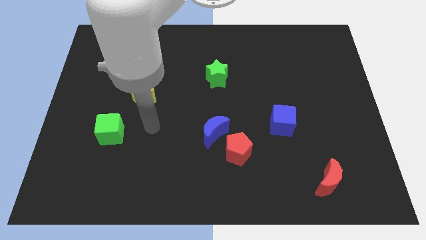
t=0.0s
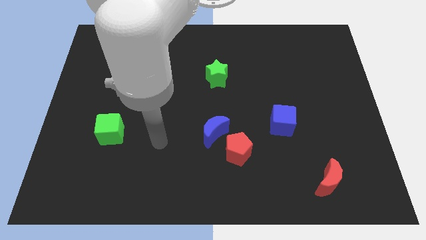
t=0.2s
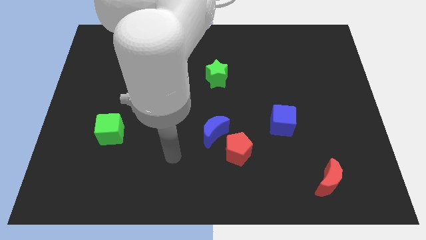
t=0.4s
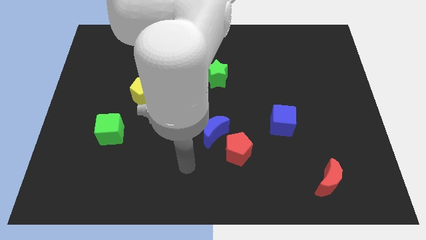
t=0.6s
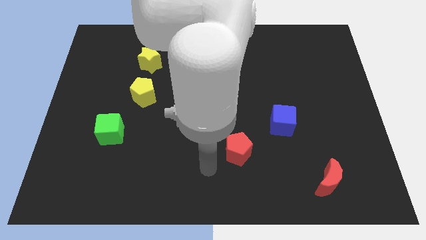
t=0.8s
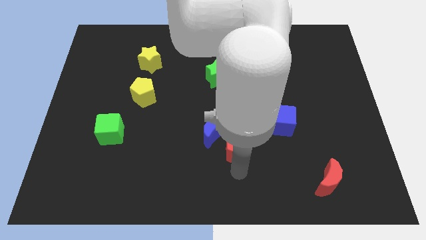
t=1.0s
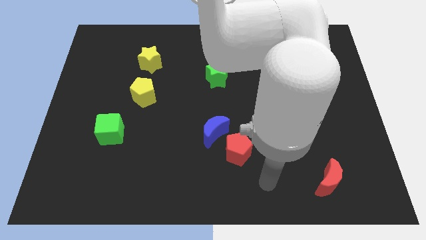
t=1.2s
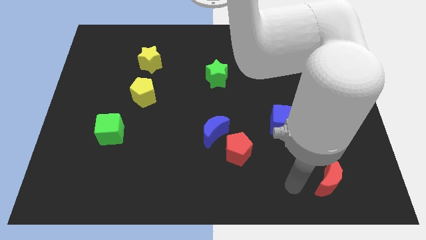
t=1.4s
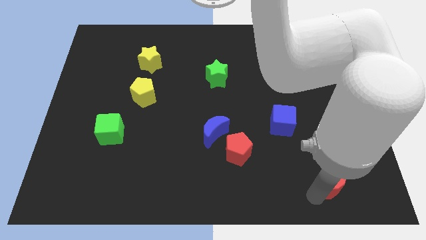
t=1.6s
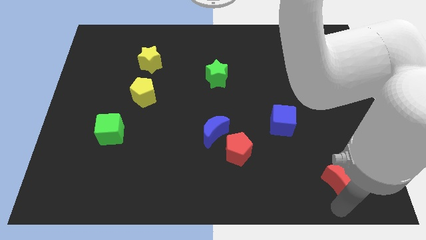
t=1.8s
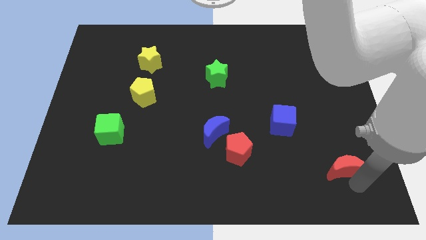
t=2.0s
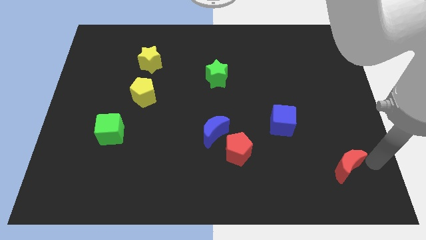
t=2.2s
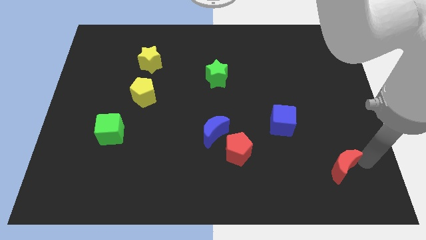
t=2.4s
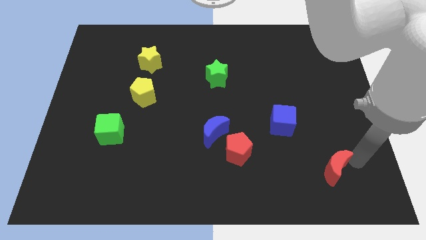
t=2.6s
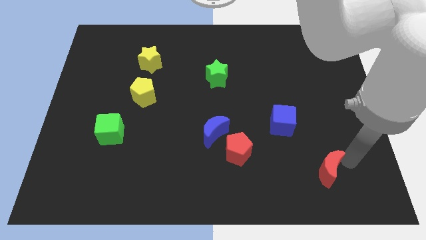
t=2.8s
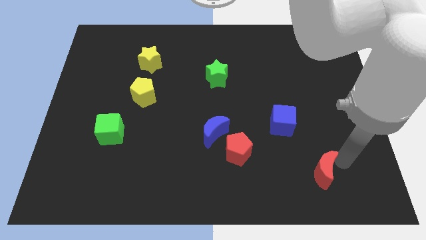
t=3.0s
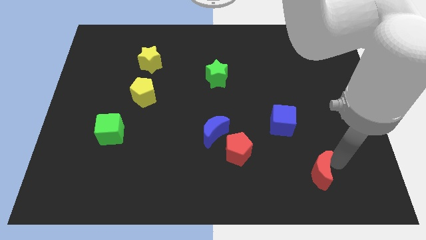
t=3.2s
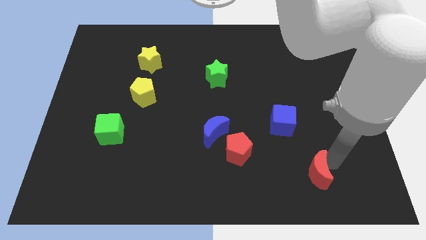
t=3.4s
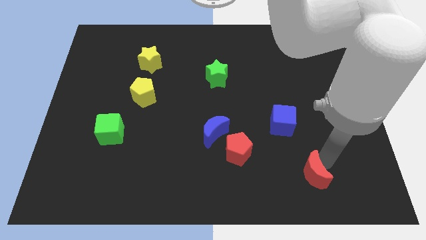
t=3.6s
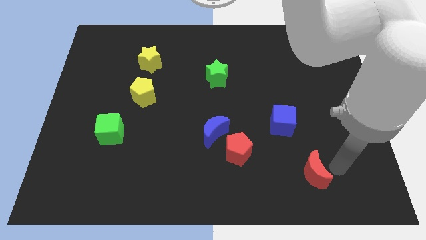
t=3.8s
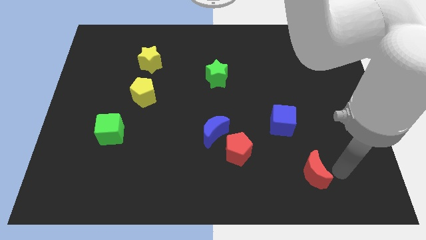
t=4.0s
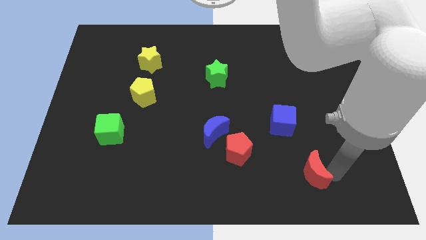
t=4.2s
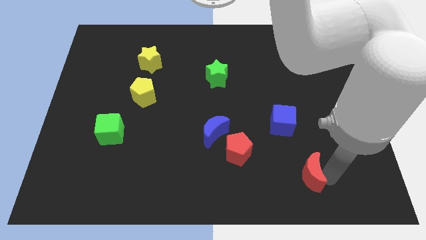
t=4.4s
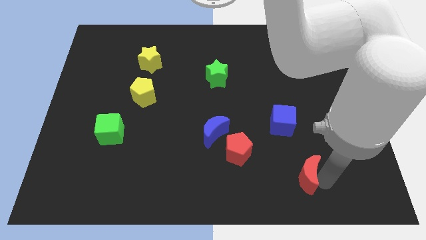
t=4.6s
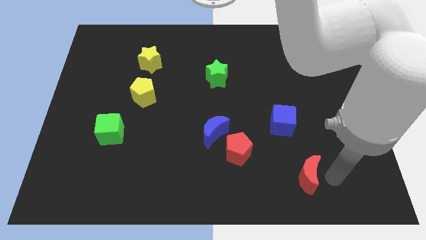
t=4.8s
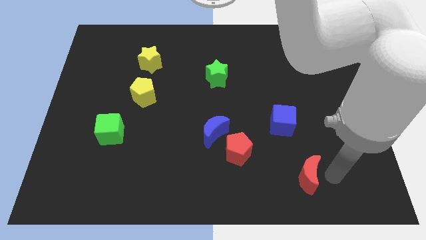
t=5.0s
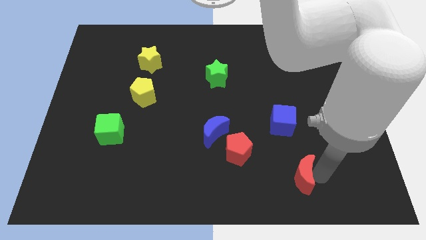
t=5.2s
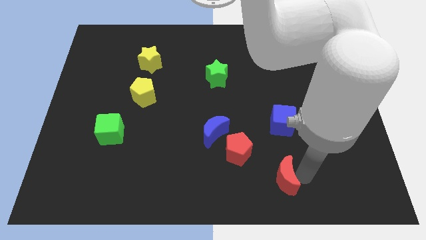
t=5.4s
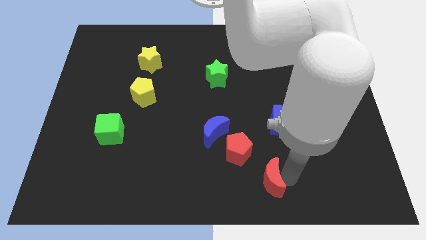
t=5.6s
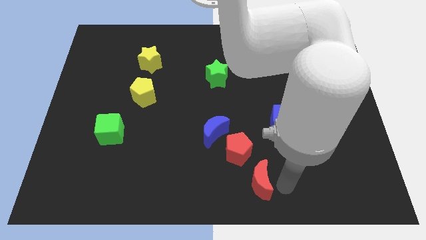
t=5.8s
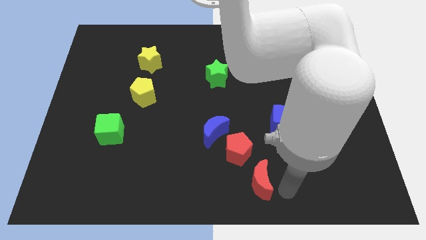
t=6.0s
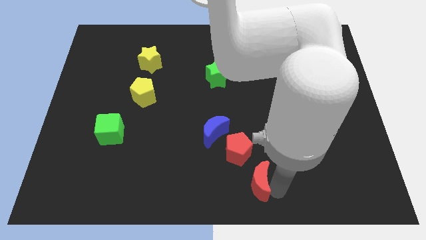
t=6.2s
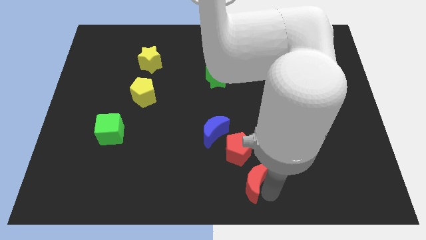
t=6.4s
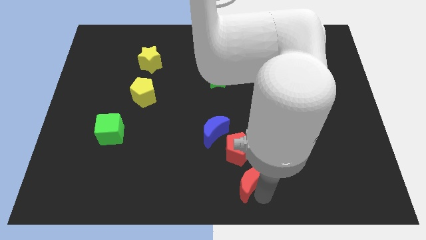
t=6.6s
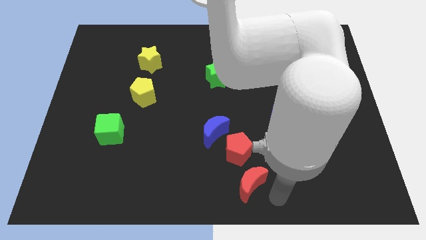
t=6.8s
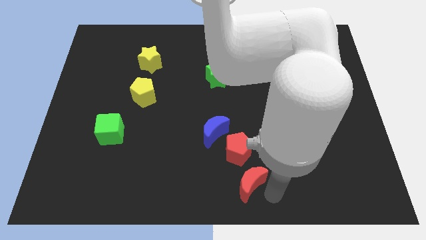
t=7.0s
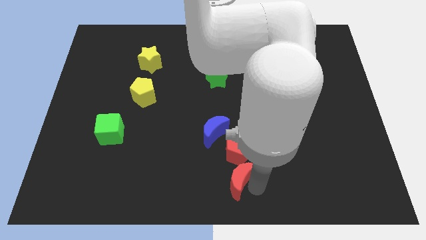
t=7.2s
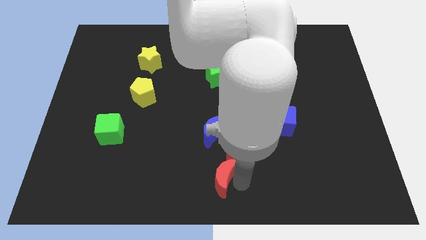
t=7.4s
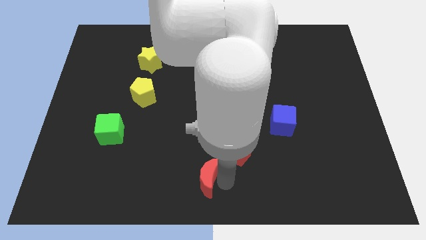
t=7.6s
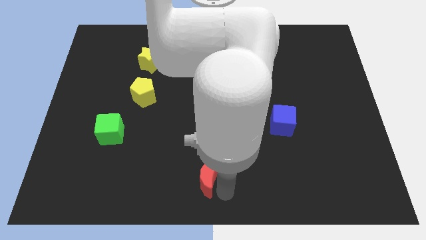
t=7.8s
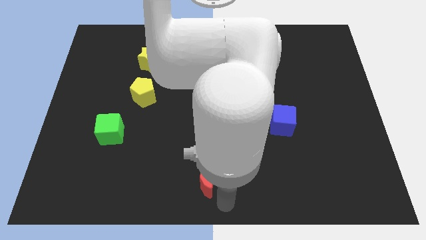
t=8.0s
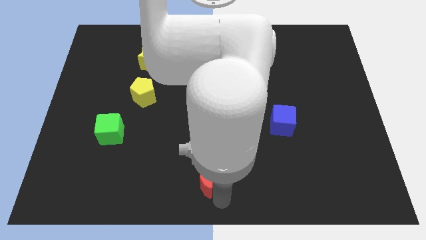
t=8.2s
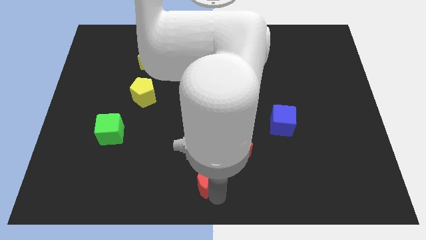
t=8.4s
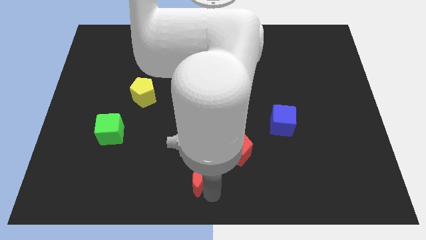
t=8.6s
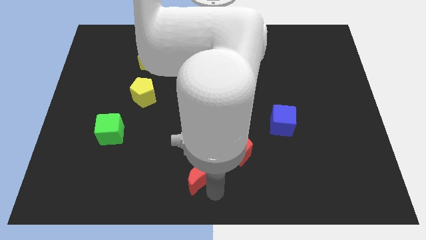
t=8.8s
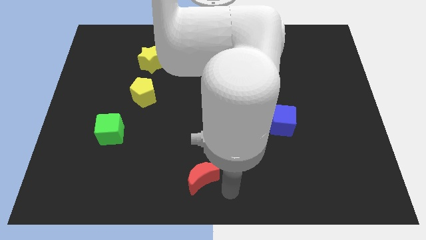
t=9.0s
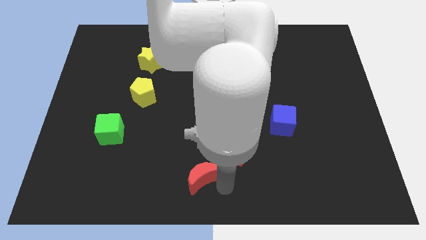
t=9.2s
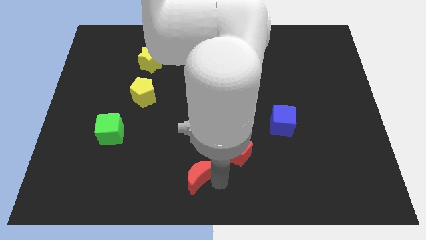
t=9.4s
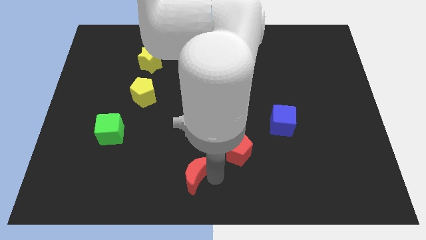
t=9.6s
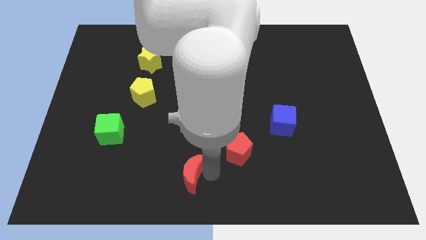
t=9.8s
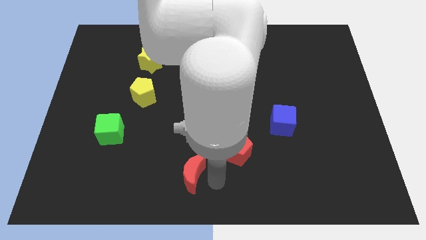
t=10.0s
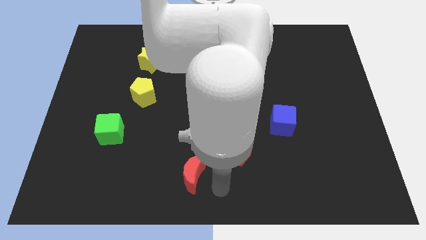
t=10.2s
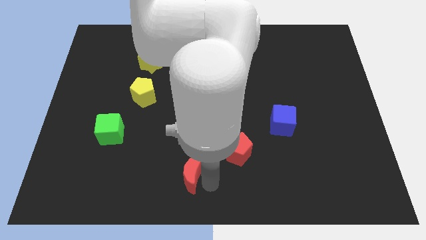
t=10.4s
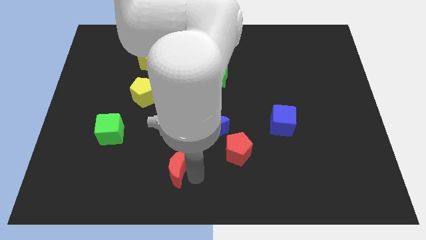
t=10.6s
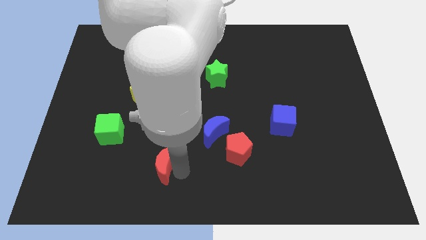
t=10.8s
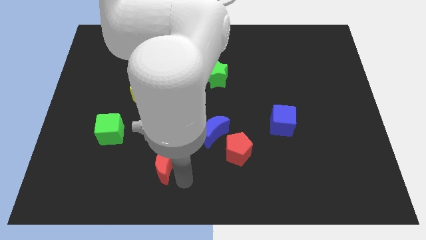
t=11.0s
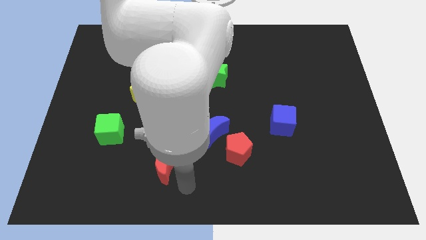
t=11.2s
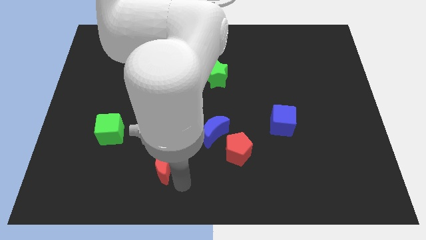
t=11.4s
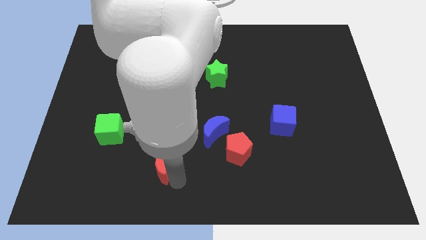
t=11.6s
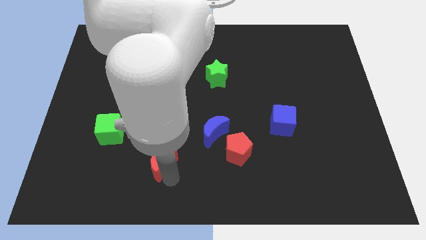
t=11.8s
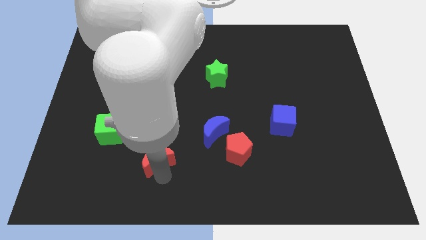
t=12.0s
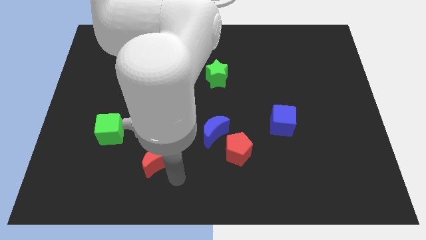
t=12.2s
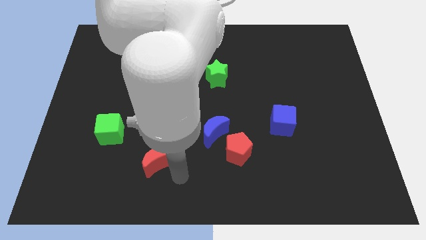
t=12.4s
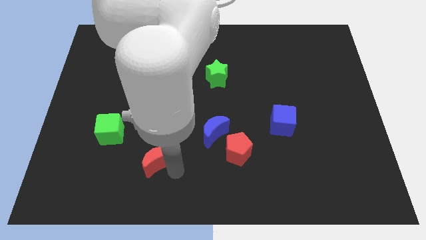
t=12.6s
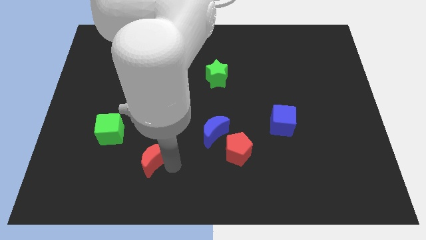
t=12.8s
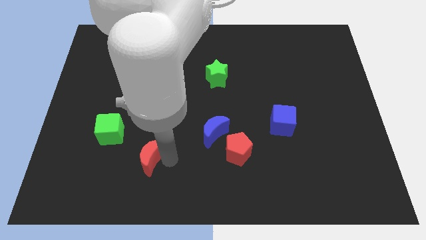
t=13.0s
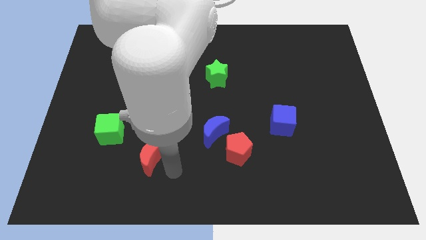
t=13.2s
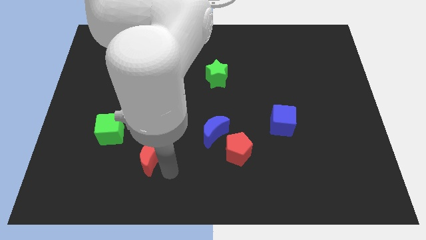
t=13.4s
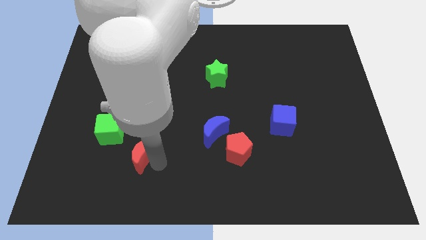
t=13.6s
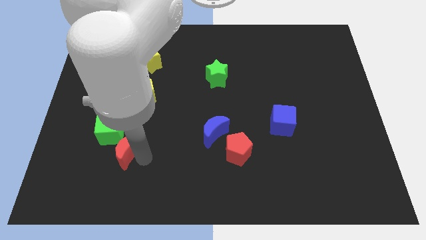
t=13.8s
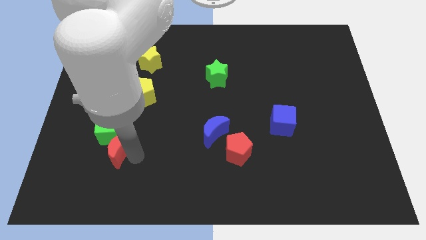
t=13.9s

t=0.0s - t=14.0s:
push the red moon towards the green cube
